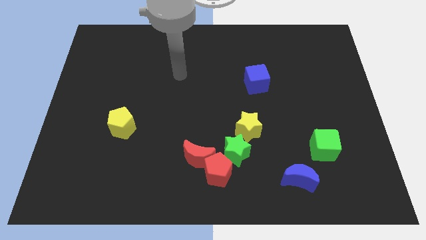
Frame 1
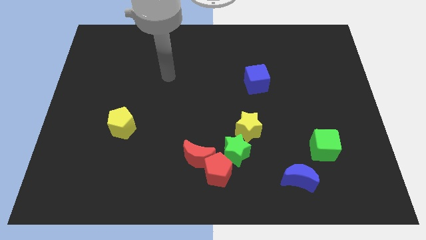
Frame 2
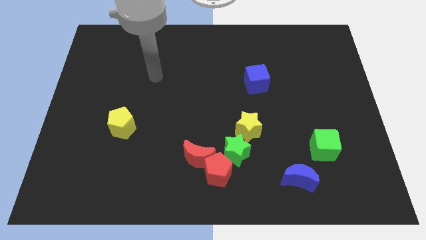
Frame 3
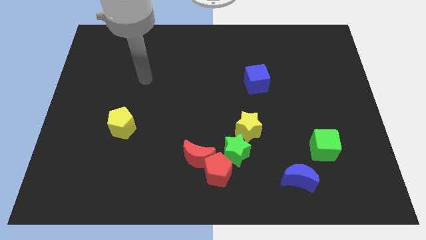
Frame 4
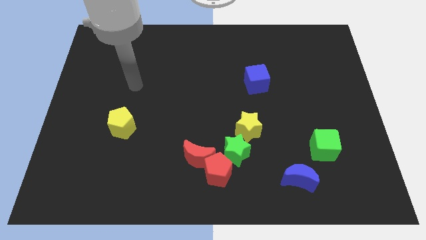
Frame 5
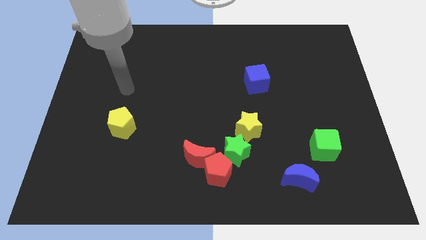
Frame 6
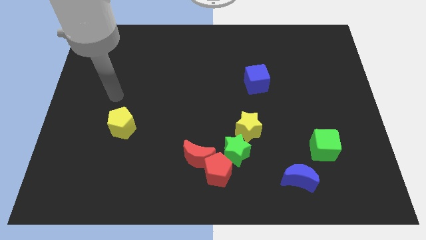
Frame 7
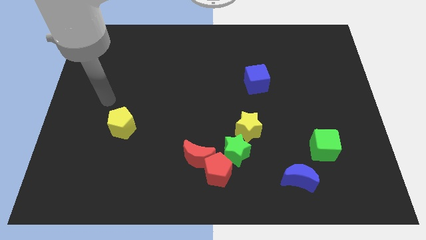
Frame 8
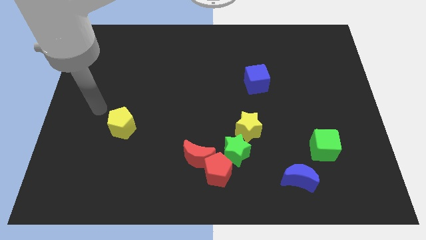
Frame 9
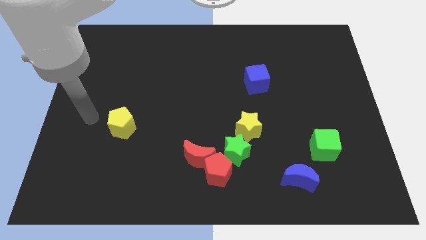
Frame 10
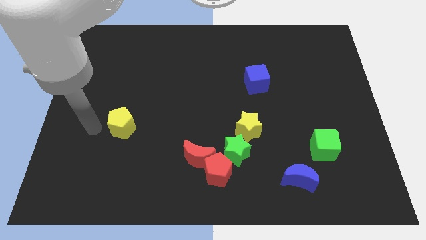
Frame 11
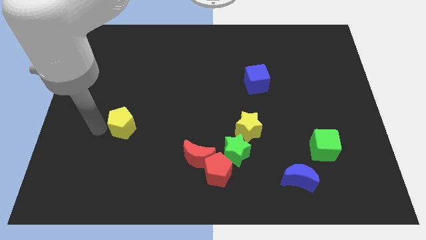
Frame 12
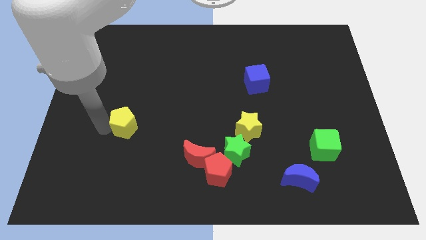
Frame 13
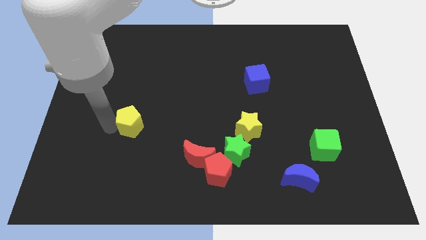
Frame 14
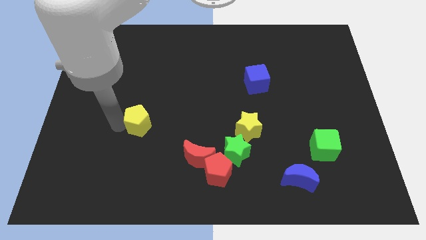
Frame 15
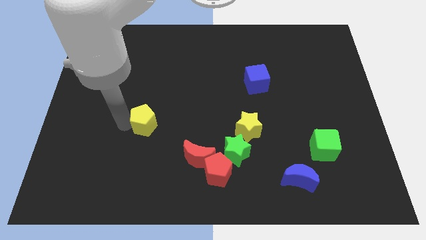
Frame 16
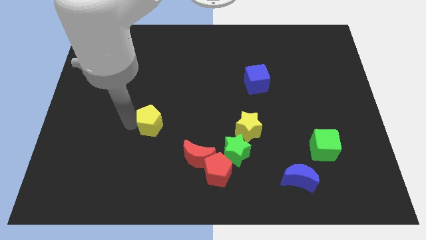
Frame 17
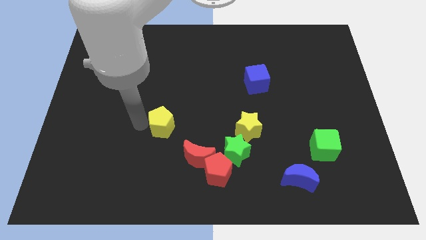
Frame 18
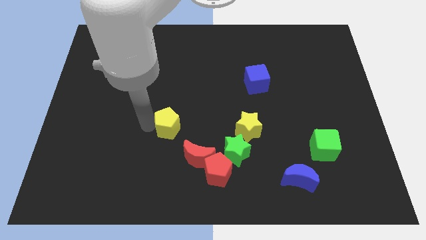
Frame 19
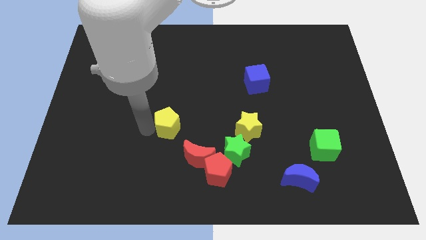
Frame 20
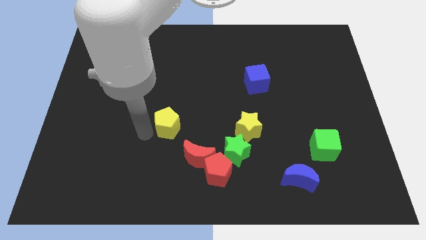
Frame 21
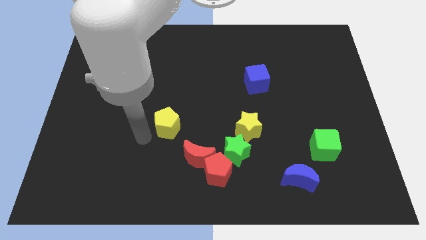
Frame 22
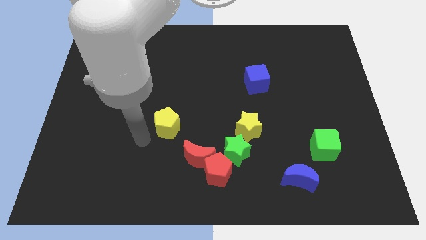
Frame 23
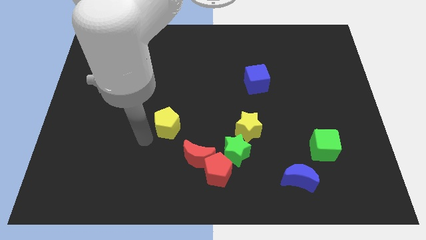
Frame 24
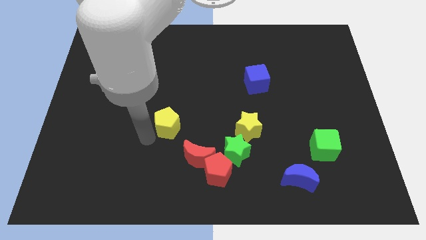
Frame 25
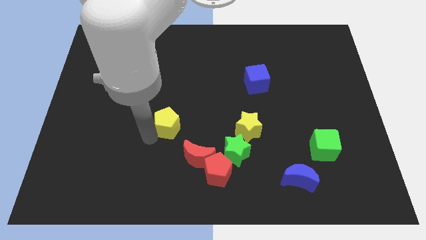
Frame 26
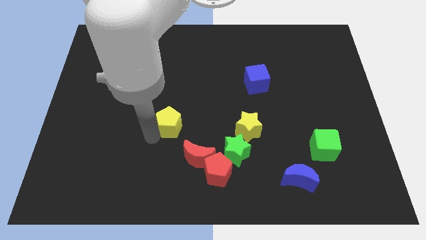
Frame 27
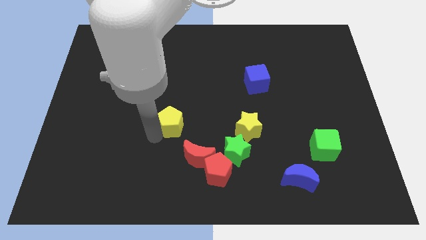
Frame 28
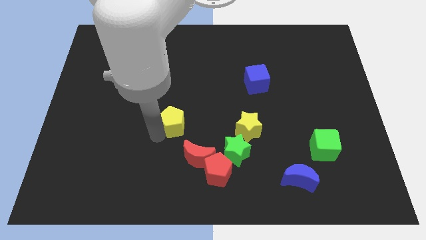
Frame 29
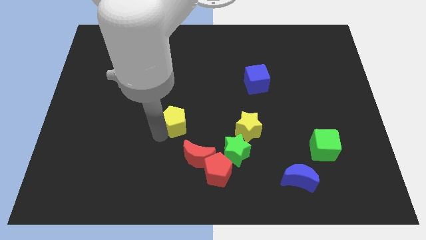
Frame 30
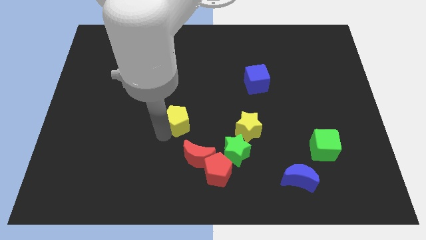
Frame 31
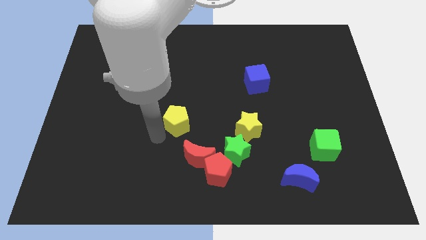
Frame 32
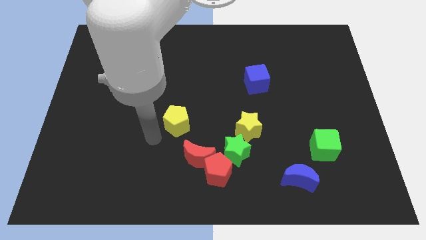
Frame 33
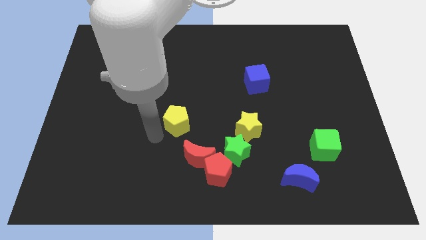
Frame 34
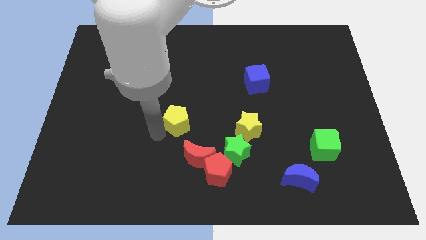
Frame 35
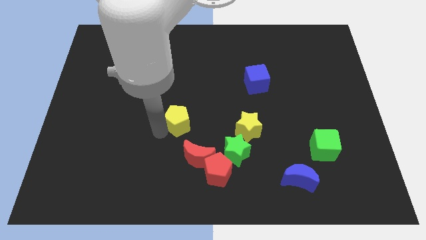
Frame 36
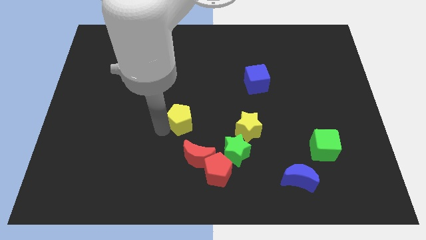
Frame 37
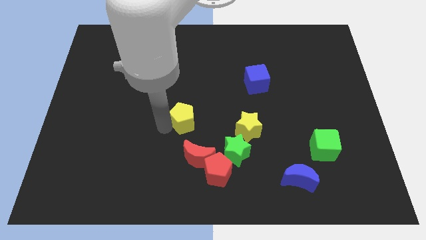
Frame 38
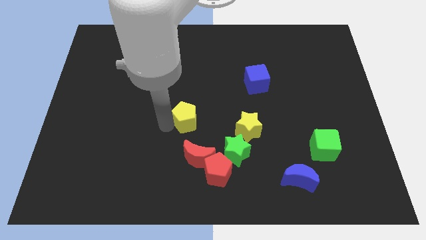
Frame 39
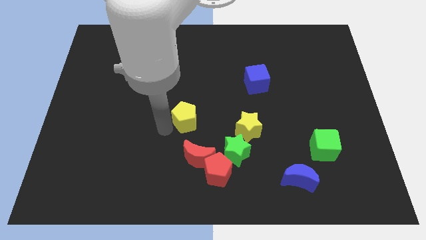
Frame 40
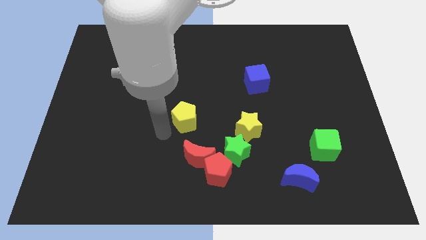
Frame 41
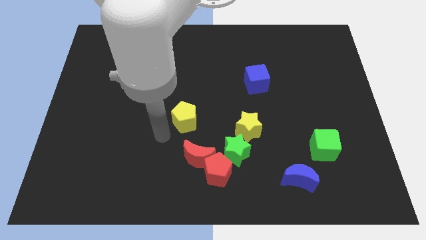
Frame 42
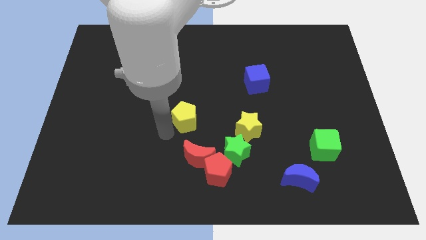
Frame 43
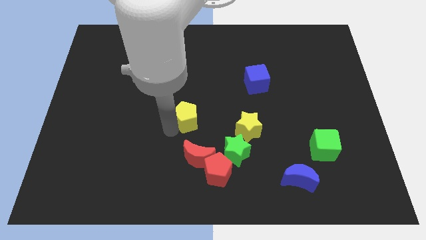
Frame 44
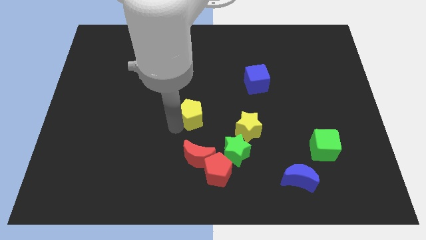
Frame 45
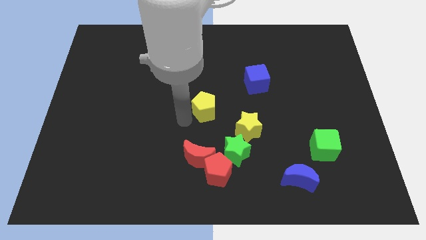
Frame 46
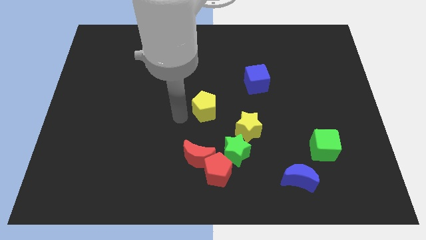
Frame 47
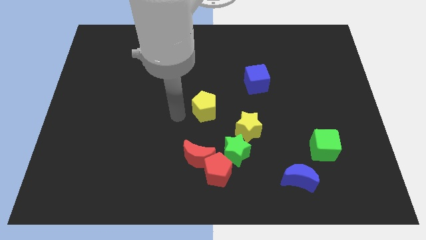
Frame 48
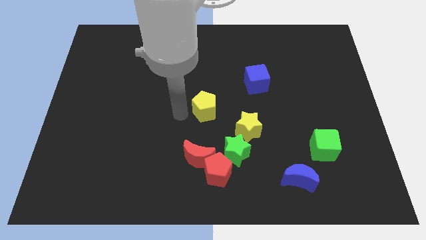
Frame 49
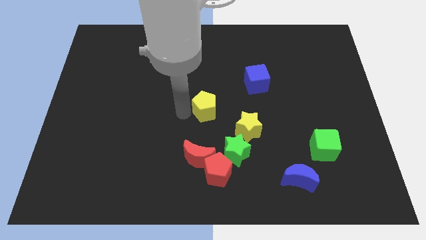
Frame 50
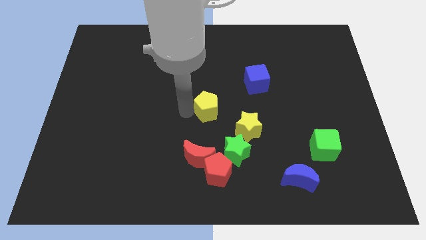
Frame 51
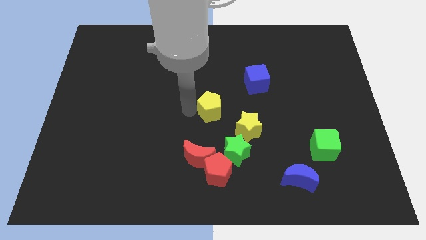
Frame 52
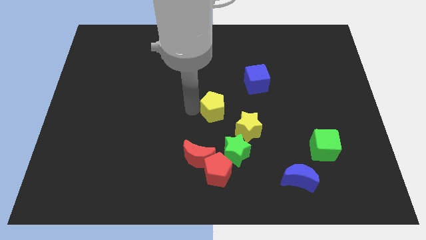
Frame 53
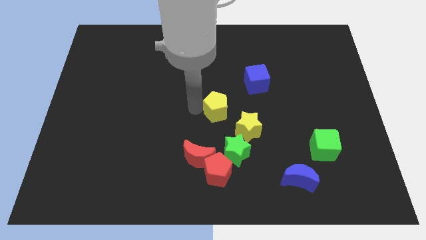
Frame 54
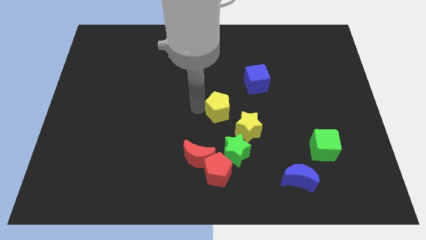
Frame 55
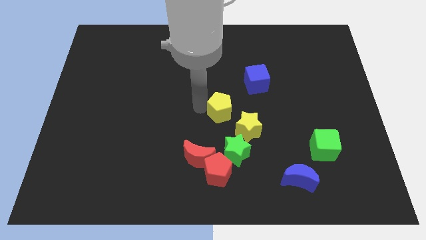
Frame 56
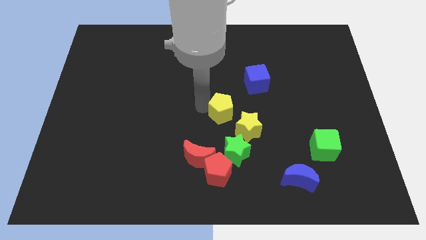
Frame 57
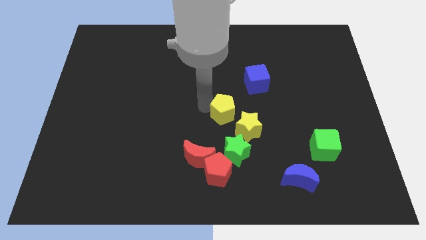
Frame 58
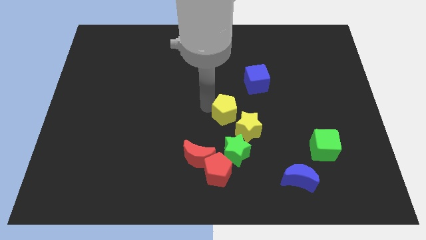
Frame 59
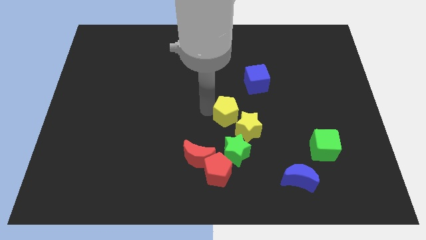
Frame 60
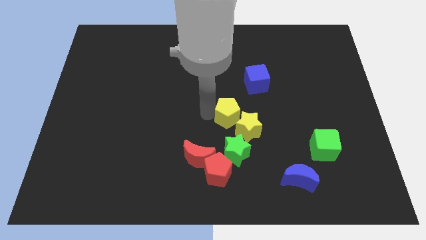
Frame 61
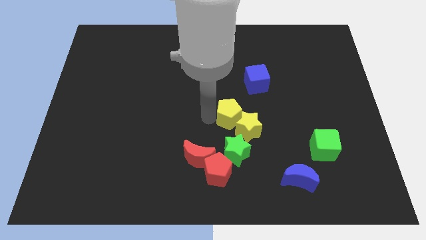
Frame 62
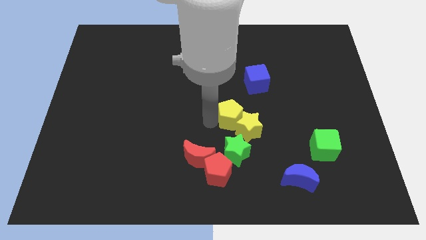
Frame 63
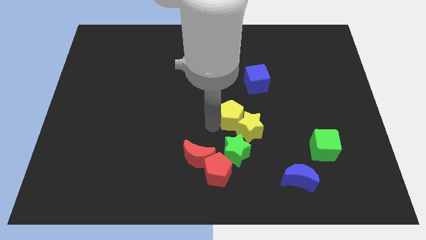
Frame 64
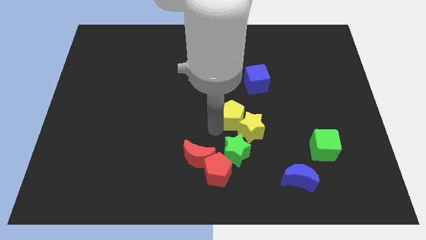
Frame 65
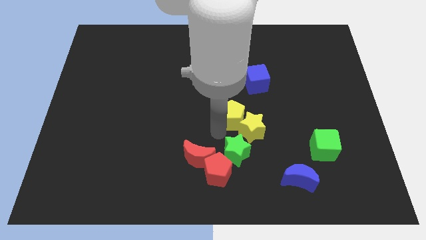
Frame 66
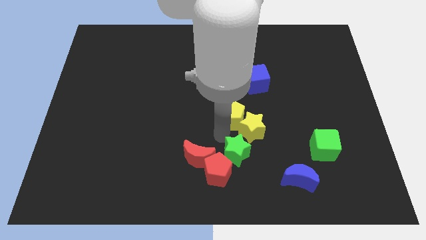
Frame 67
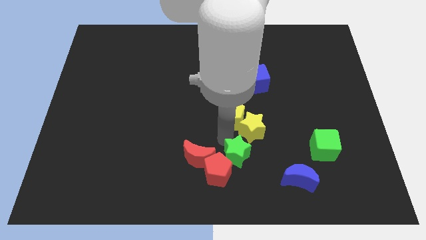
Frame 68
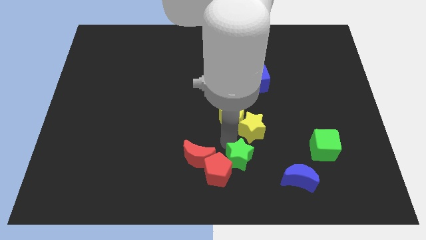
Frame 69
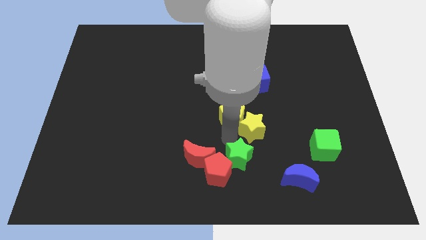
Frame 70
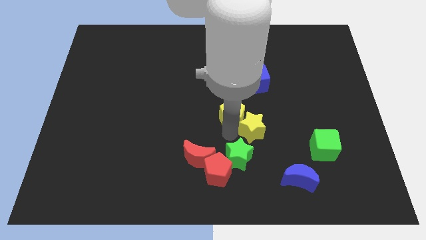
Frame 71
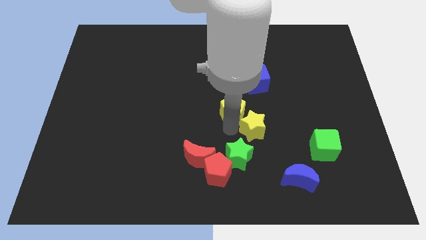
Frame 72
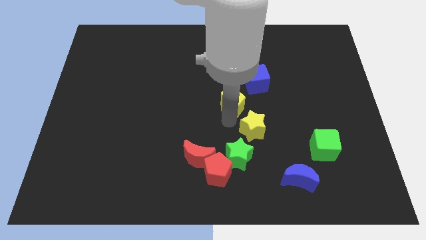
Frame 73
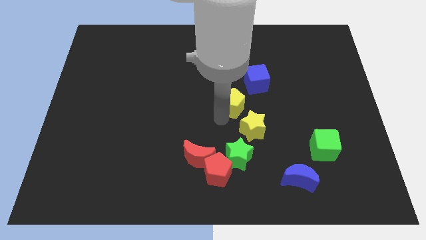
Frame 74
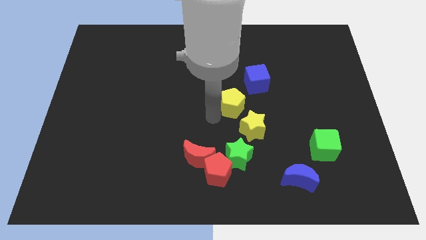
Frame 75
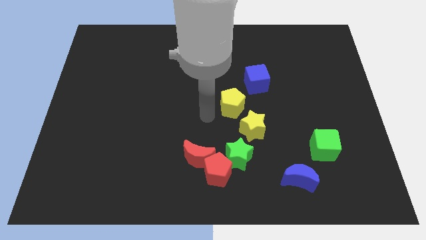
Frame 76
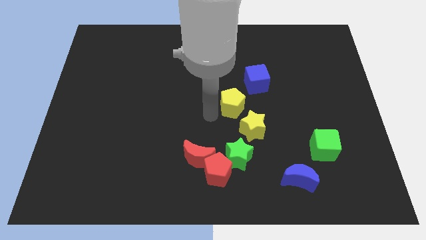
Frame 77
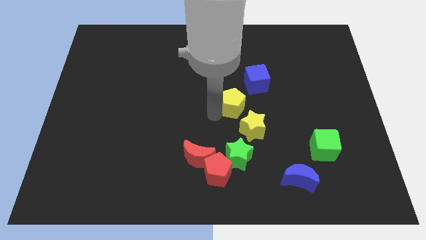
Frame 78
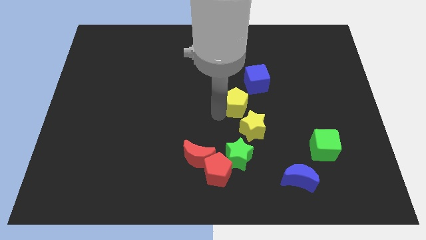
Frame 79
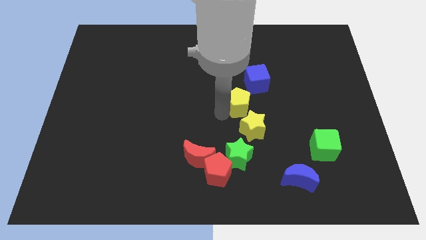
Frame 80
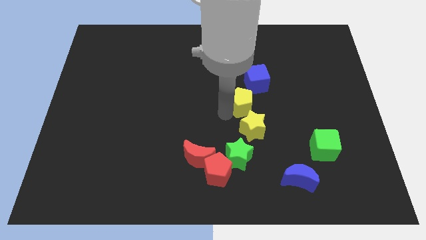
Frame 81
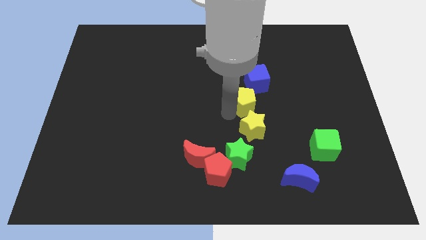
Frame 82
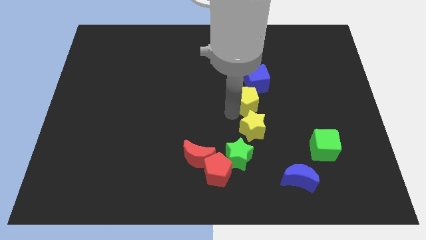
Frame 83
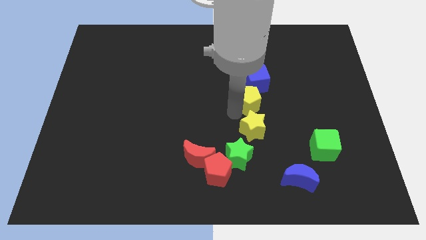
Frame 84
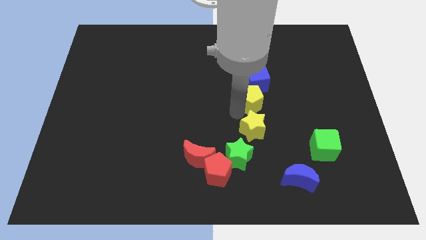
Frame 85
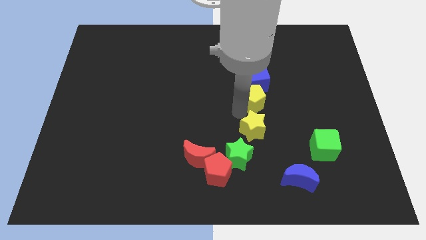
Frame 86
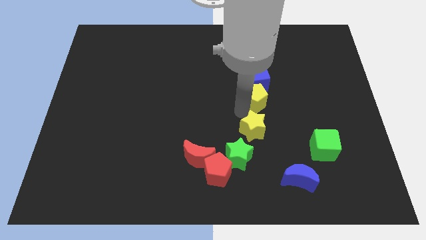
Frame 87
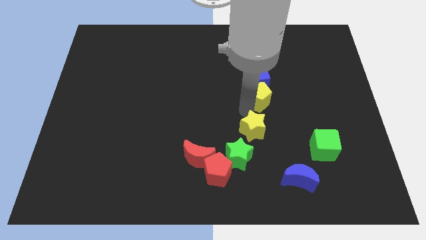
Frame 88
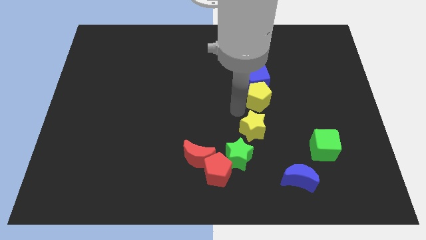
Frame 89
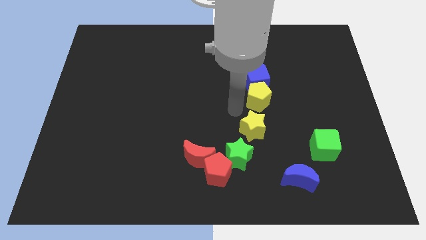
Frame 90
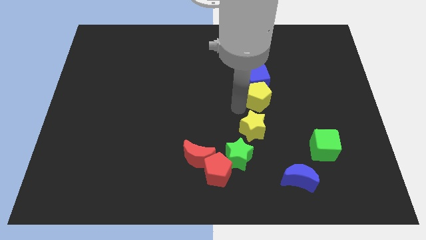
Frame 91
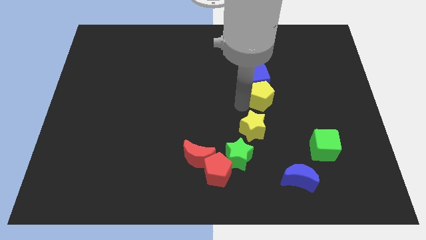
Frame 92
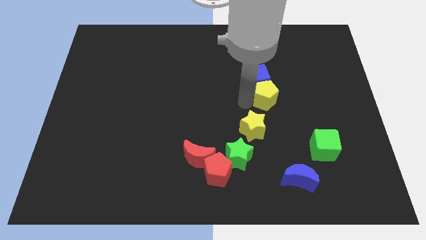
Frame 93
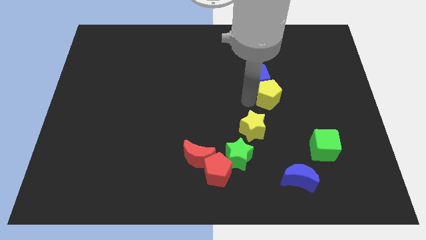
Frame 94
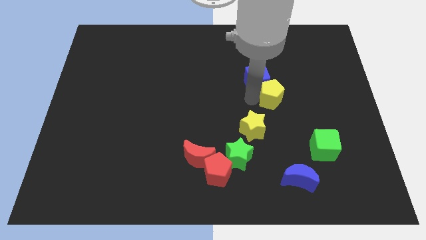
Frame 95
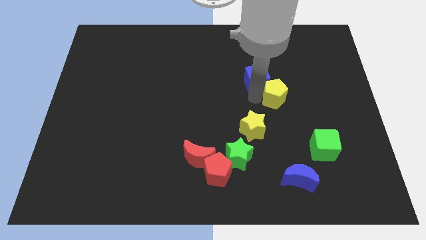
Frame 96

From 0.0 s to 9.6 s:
slide the yellow pentagon just right of the blue cube
